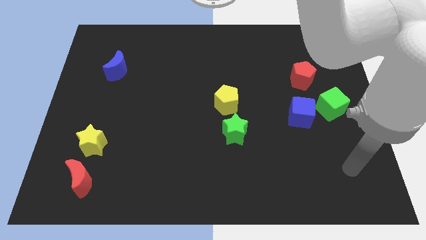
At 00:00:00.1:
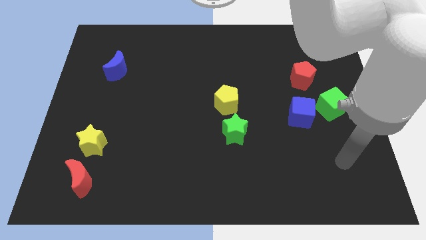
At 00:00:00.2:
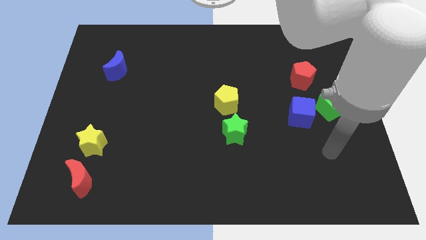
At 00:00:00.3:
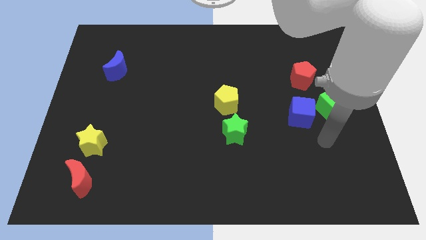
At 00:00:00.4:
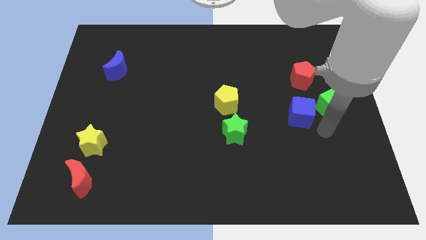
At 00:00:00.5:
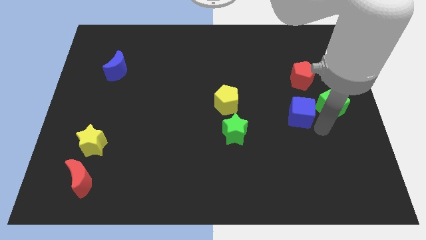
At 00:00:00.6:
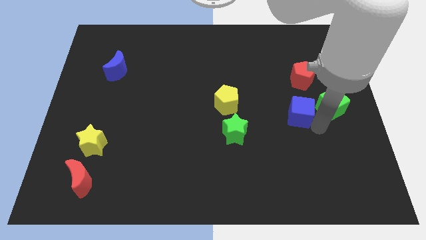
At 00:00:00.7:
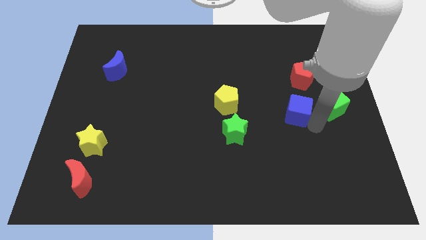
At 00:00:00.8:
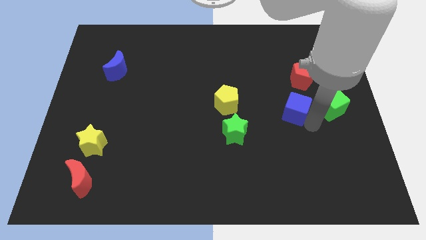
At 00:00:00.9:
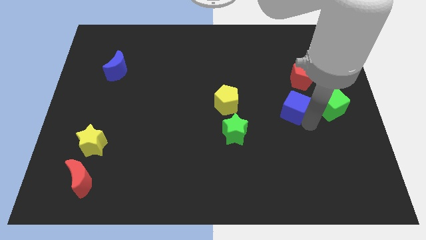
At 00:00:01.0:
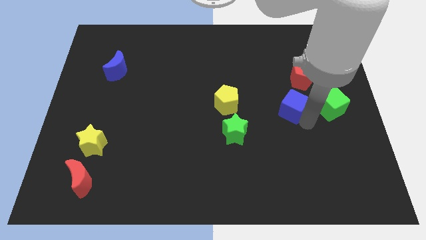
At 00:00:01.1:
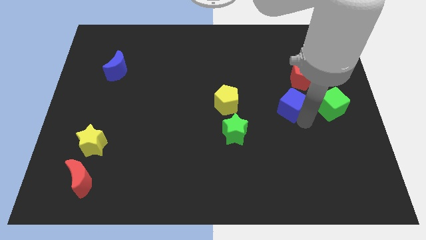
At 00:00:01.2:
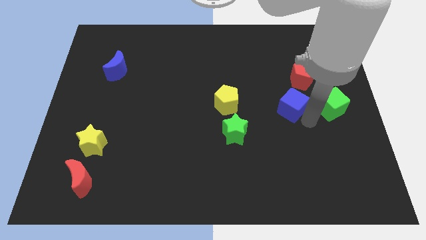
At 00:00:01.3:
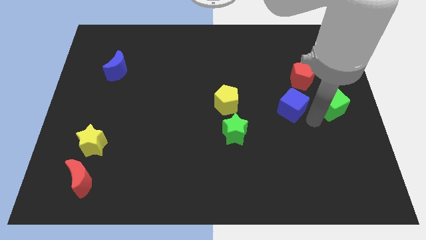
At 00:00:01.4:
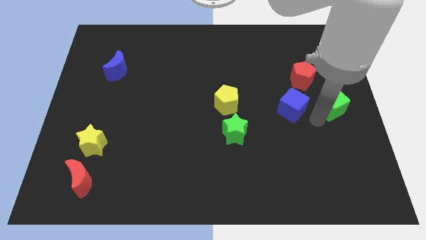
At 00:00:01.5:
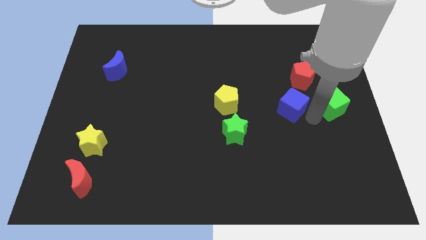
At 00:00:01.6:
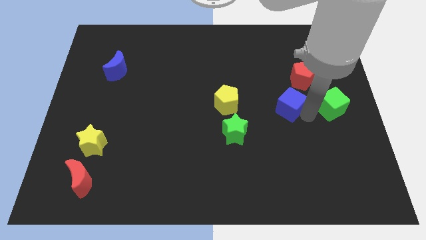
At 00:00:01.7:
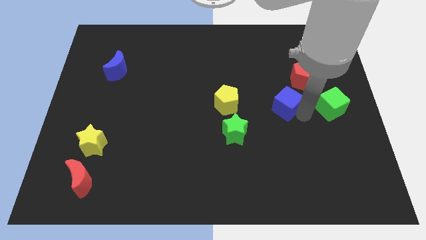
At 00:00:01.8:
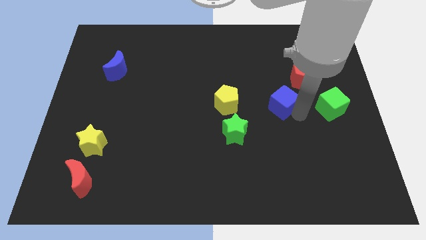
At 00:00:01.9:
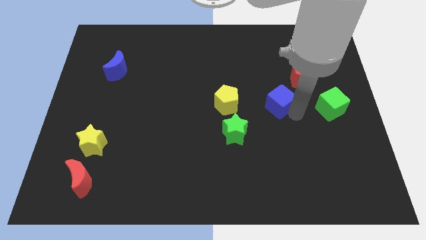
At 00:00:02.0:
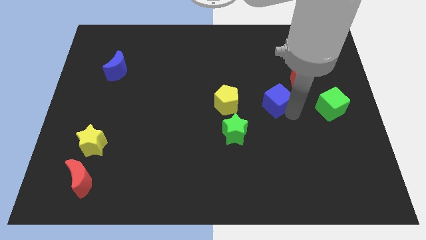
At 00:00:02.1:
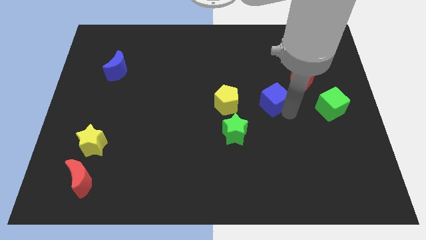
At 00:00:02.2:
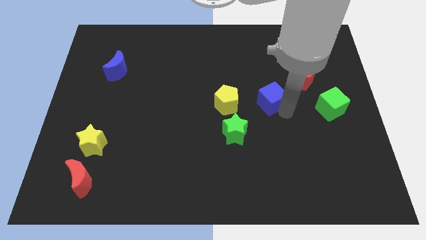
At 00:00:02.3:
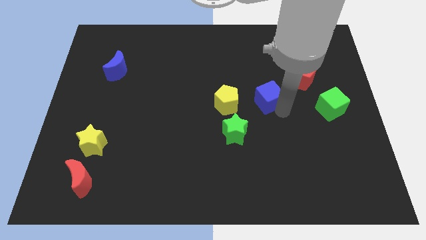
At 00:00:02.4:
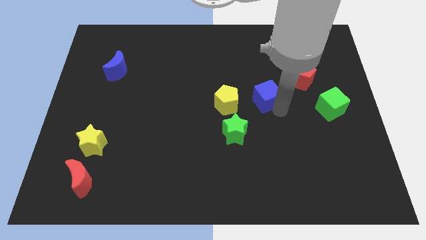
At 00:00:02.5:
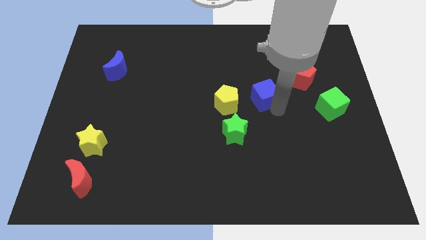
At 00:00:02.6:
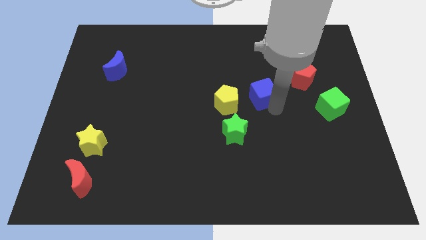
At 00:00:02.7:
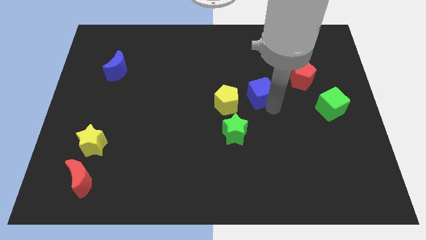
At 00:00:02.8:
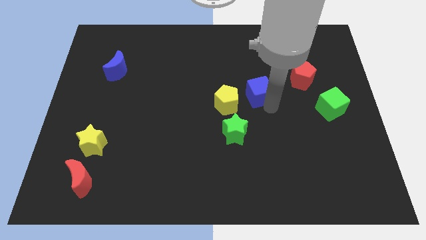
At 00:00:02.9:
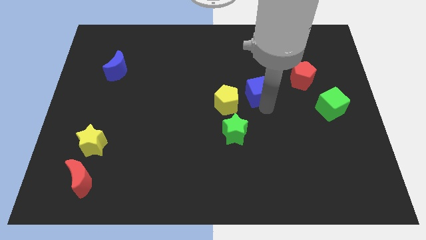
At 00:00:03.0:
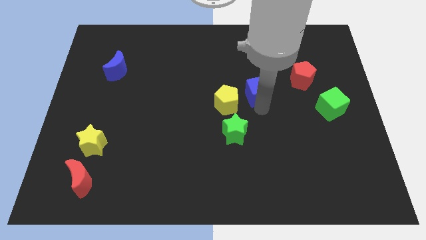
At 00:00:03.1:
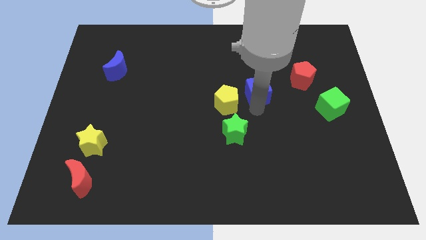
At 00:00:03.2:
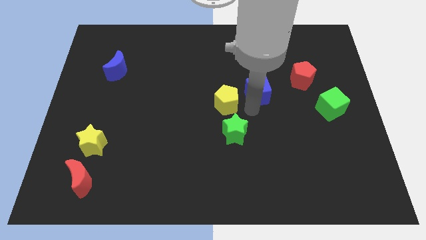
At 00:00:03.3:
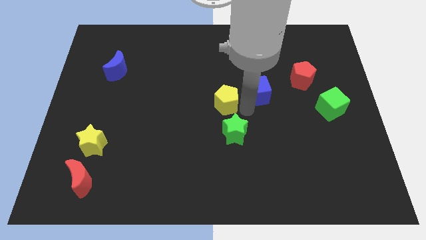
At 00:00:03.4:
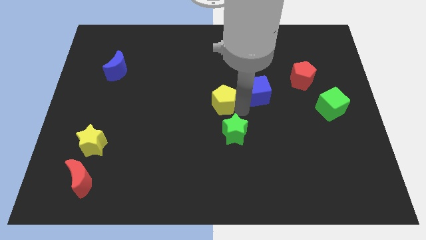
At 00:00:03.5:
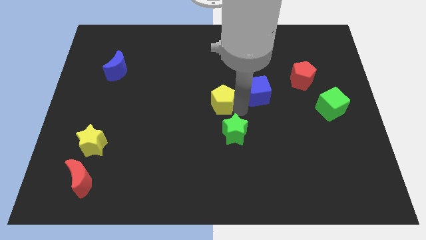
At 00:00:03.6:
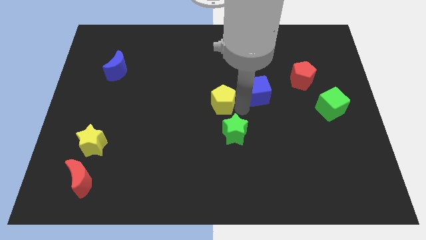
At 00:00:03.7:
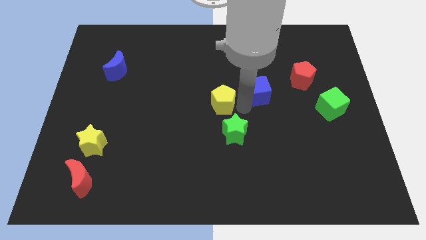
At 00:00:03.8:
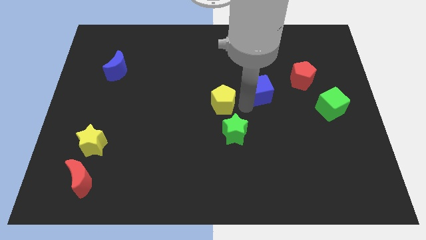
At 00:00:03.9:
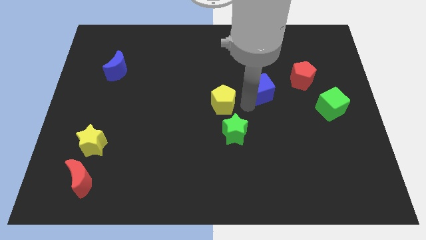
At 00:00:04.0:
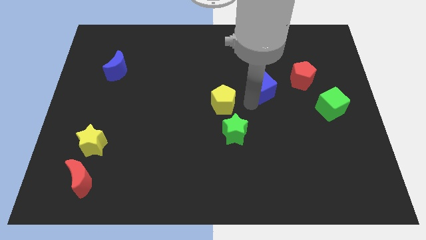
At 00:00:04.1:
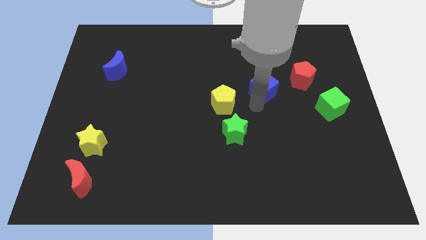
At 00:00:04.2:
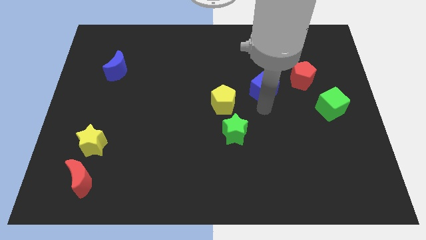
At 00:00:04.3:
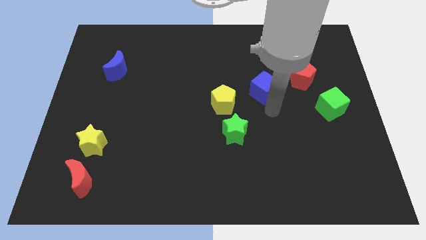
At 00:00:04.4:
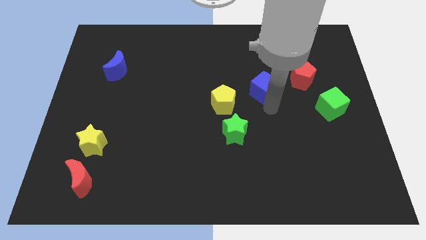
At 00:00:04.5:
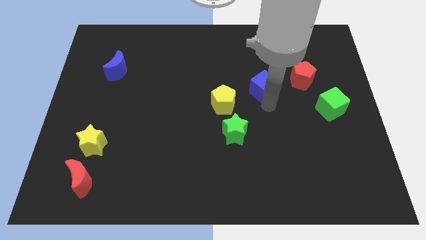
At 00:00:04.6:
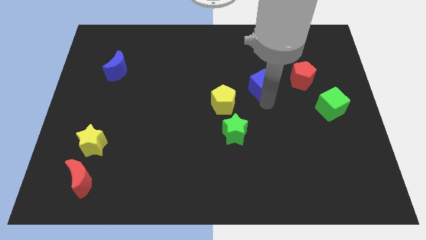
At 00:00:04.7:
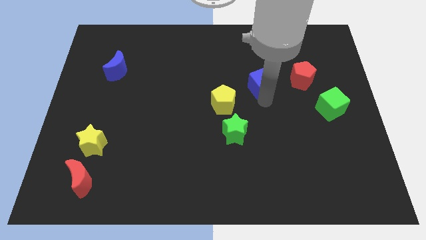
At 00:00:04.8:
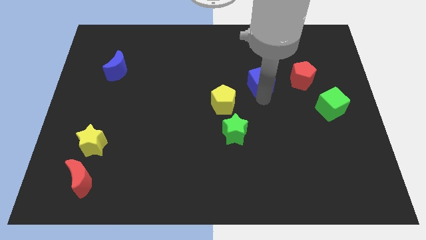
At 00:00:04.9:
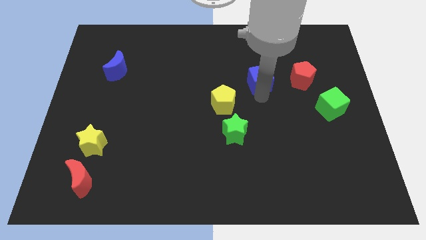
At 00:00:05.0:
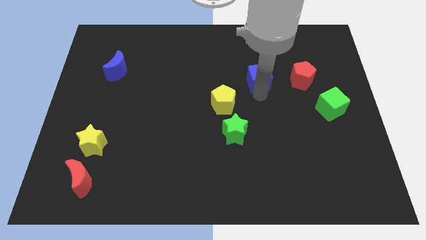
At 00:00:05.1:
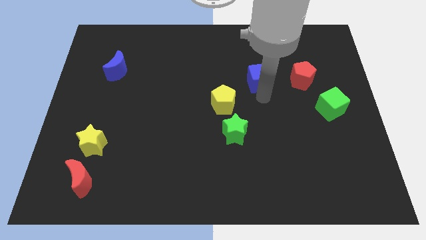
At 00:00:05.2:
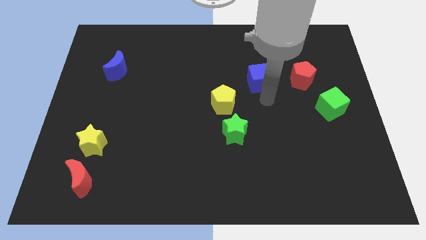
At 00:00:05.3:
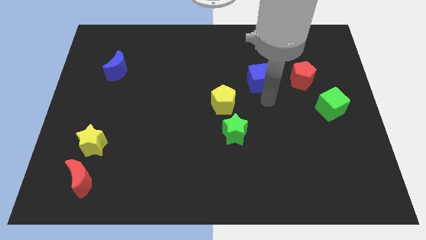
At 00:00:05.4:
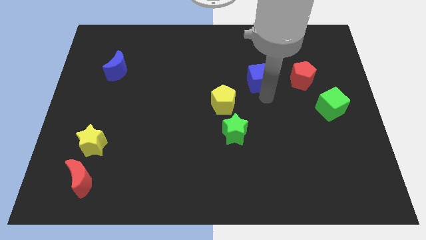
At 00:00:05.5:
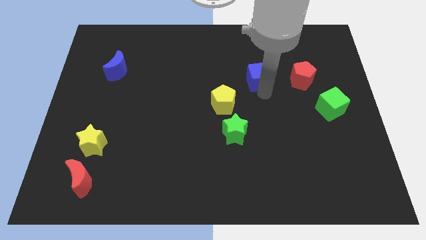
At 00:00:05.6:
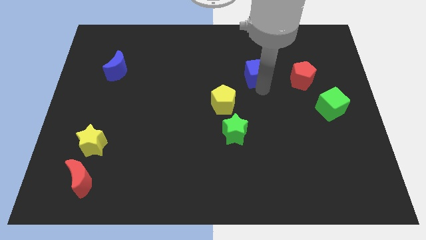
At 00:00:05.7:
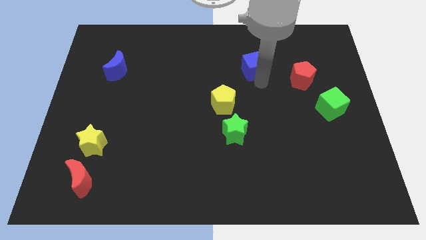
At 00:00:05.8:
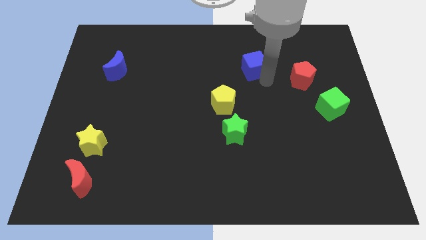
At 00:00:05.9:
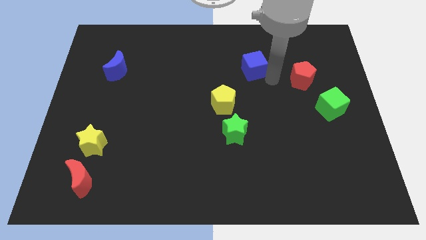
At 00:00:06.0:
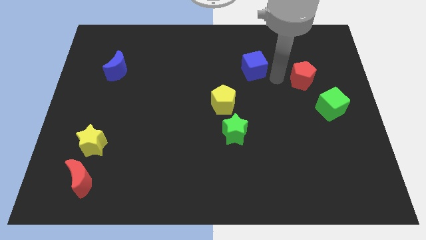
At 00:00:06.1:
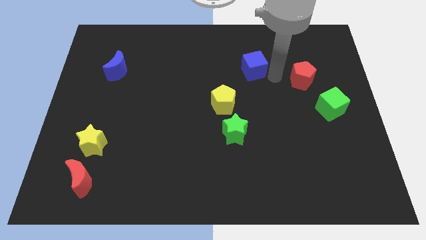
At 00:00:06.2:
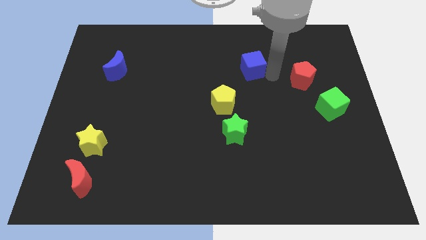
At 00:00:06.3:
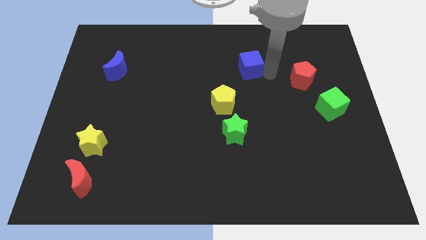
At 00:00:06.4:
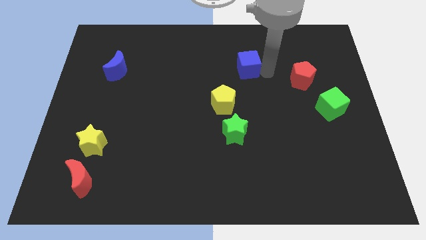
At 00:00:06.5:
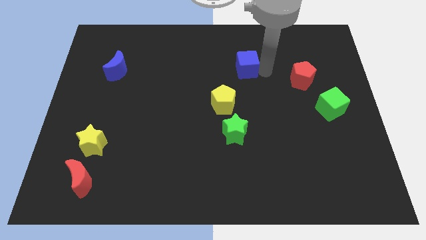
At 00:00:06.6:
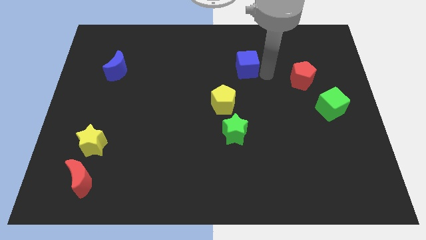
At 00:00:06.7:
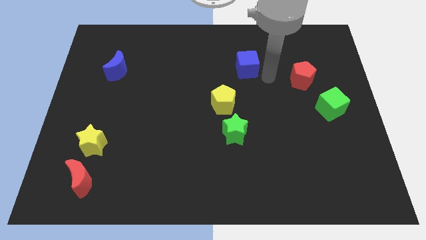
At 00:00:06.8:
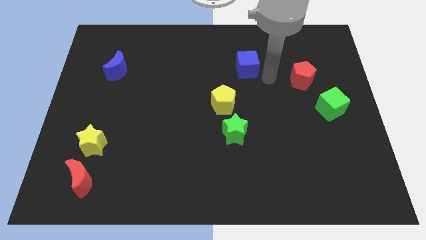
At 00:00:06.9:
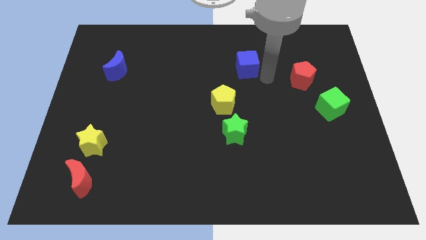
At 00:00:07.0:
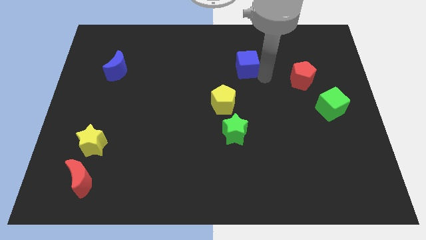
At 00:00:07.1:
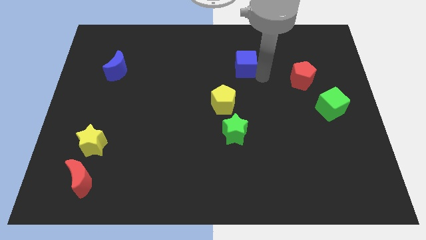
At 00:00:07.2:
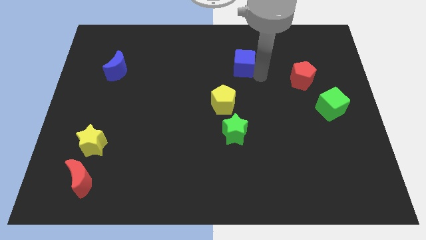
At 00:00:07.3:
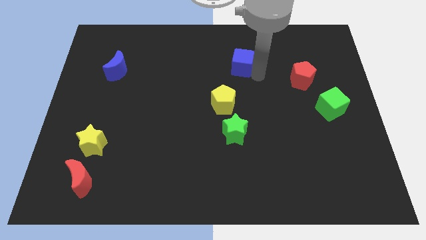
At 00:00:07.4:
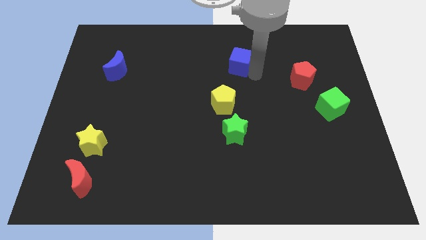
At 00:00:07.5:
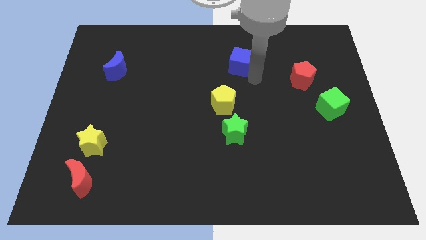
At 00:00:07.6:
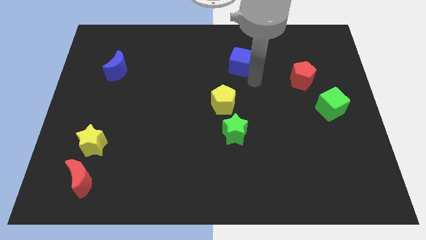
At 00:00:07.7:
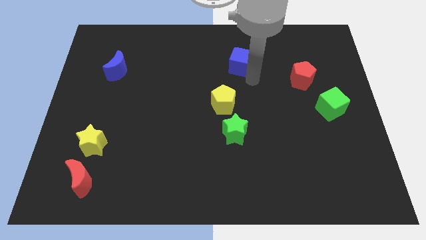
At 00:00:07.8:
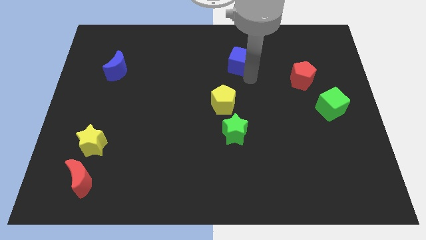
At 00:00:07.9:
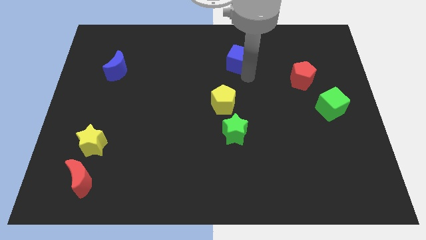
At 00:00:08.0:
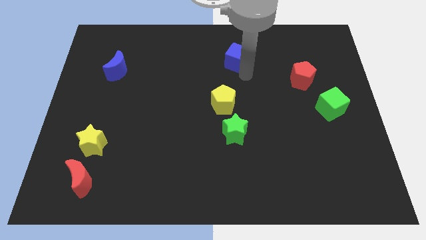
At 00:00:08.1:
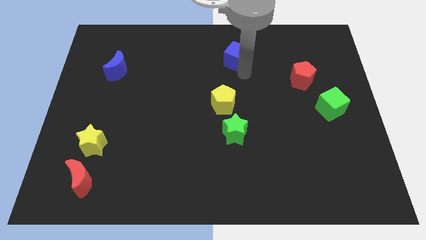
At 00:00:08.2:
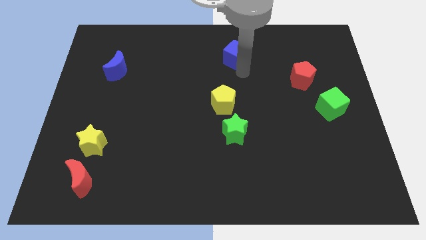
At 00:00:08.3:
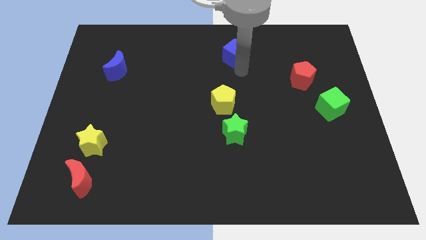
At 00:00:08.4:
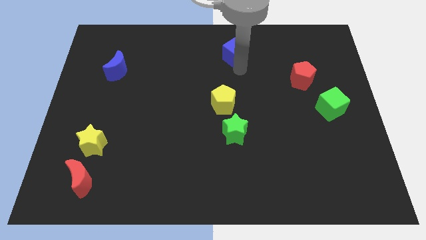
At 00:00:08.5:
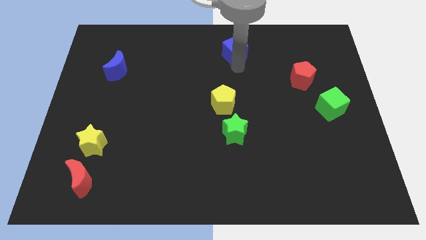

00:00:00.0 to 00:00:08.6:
move the blue cube to the towards your base
